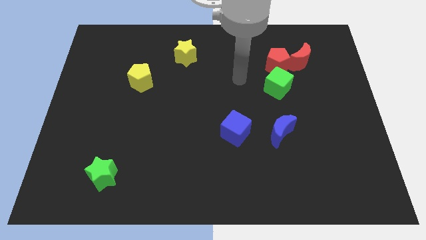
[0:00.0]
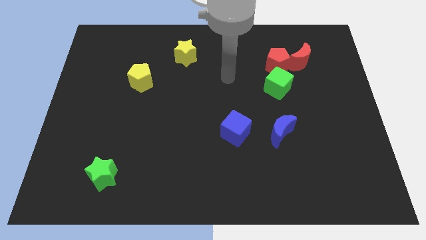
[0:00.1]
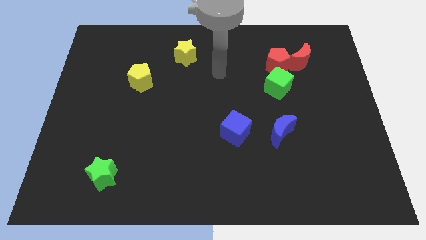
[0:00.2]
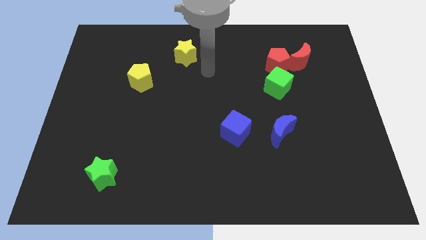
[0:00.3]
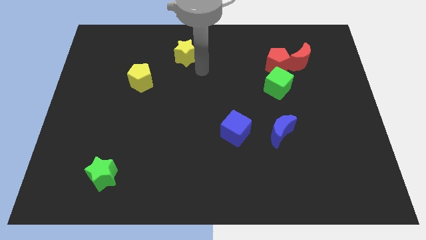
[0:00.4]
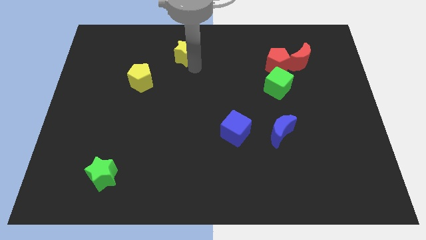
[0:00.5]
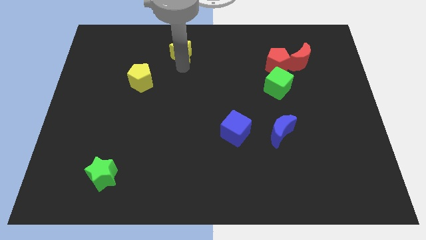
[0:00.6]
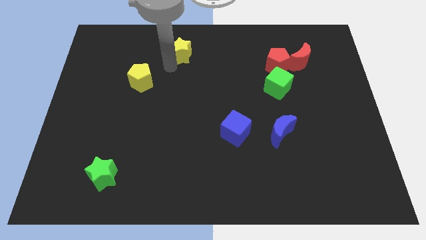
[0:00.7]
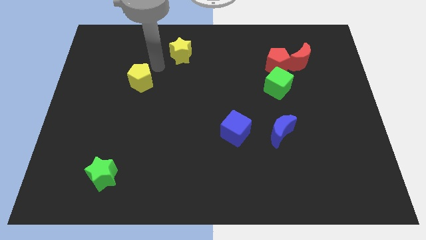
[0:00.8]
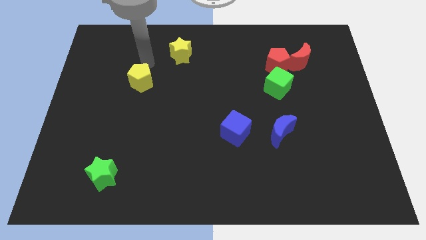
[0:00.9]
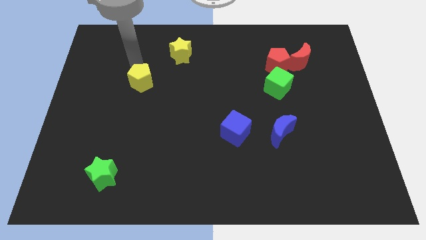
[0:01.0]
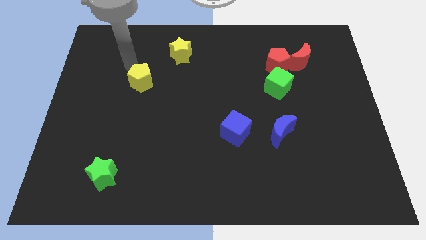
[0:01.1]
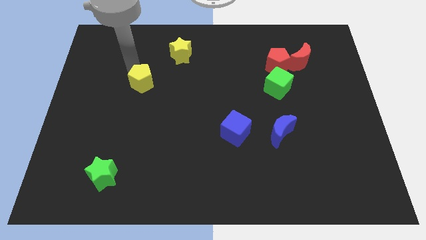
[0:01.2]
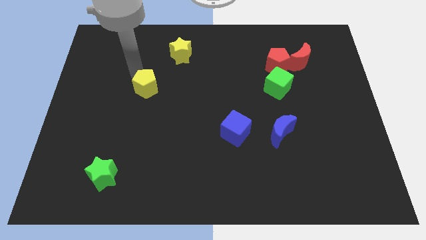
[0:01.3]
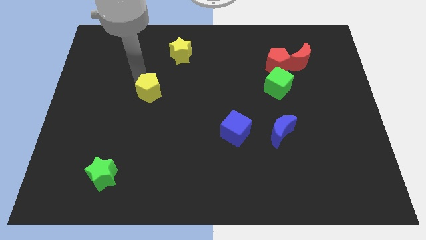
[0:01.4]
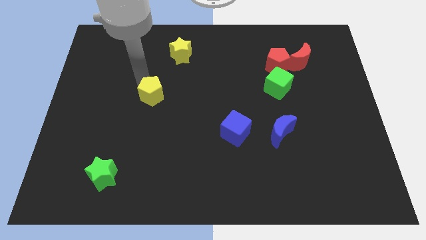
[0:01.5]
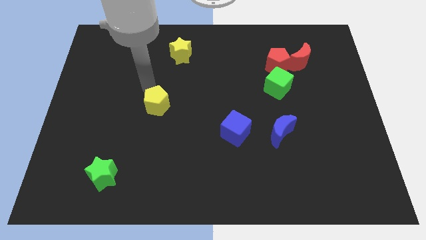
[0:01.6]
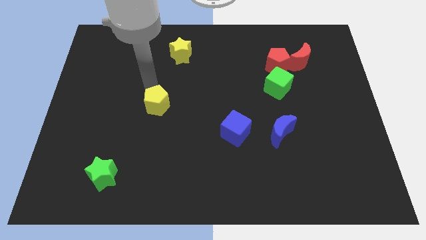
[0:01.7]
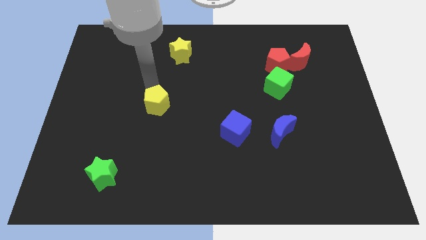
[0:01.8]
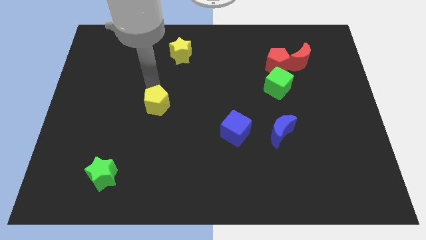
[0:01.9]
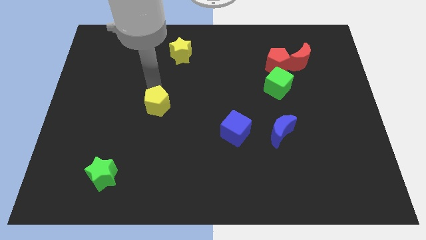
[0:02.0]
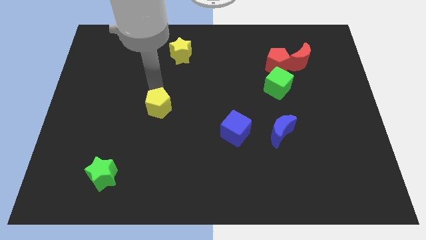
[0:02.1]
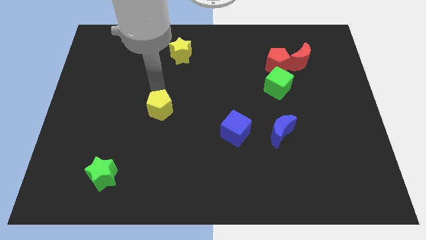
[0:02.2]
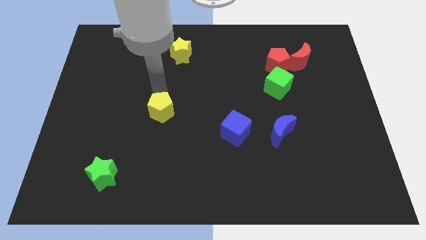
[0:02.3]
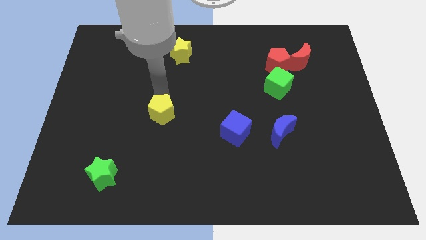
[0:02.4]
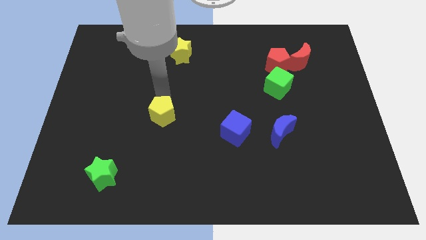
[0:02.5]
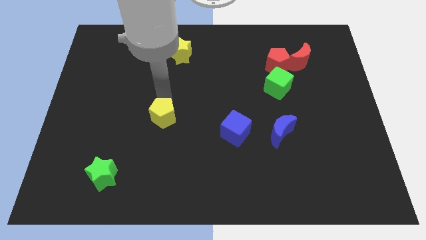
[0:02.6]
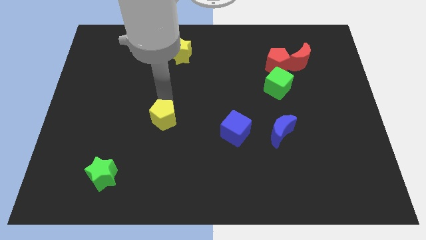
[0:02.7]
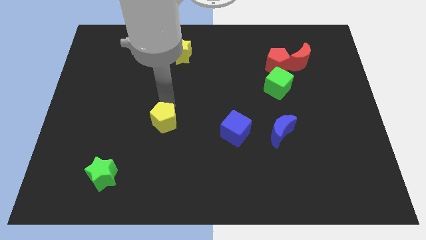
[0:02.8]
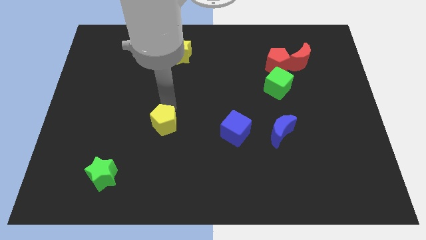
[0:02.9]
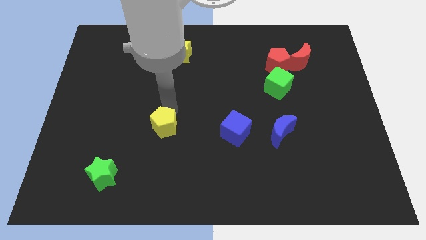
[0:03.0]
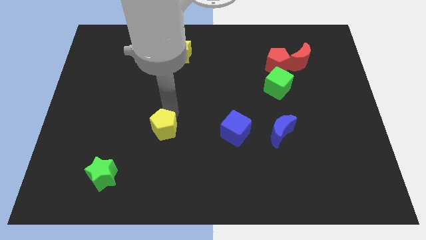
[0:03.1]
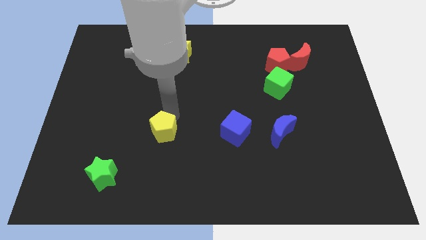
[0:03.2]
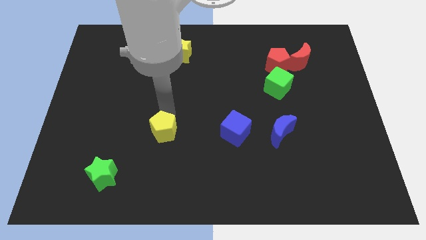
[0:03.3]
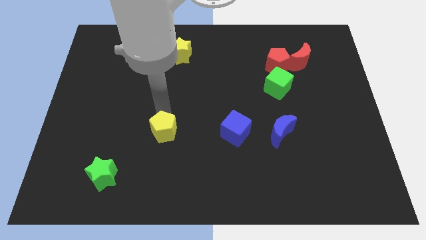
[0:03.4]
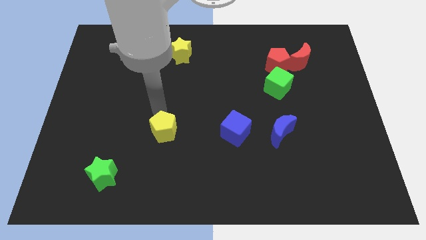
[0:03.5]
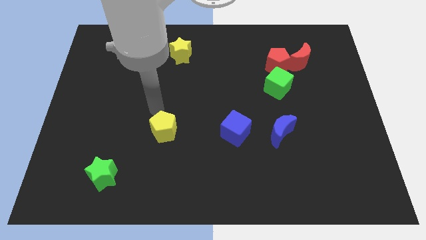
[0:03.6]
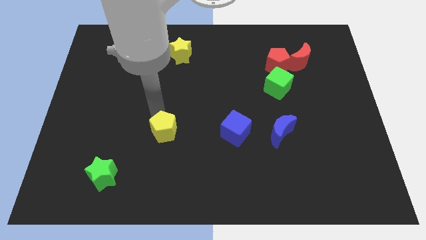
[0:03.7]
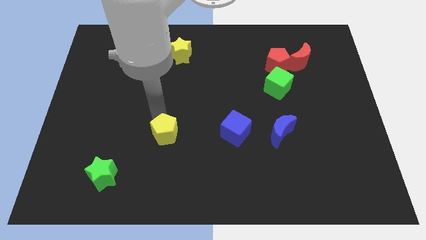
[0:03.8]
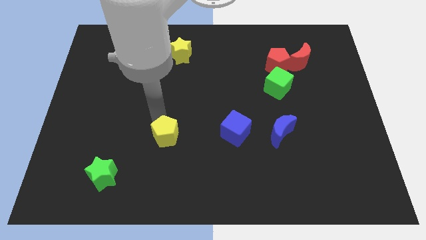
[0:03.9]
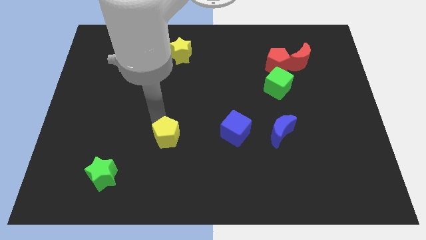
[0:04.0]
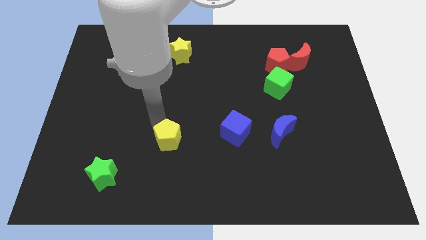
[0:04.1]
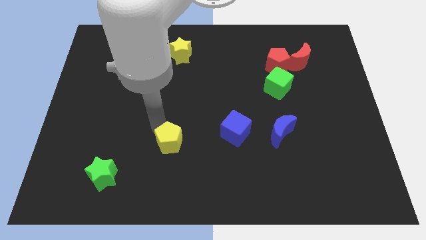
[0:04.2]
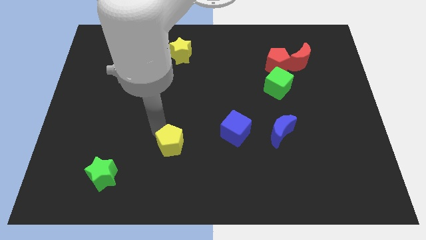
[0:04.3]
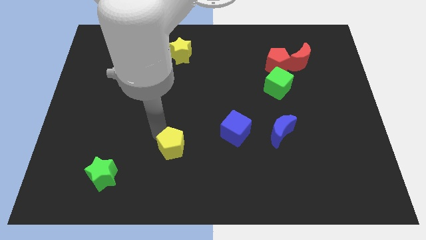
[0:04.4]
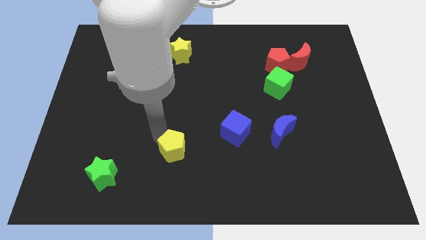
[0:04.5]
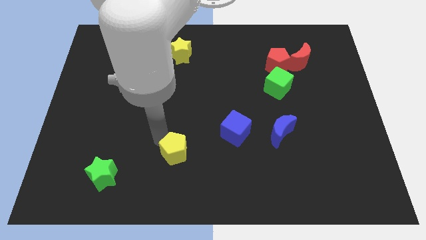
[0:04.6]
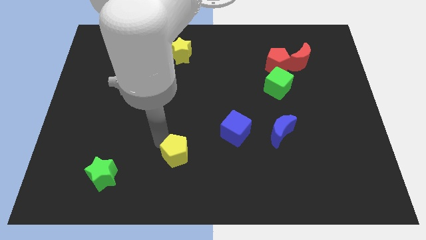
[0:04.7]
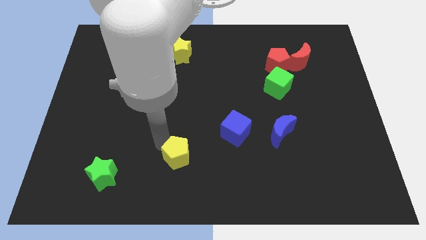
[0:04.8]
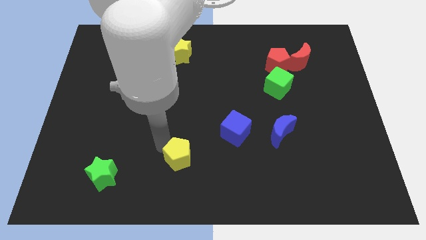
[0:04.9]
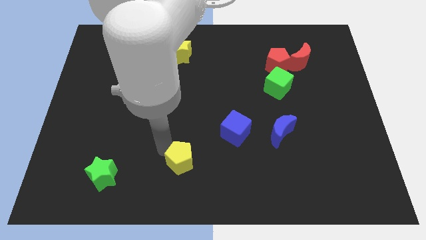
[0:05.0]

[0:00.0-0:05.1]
push the yellow pentagon to the bottom side

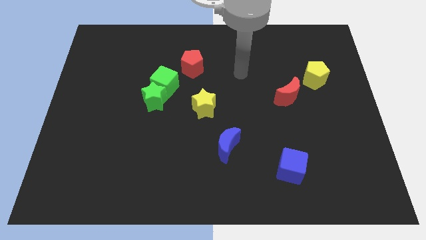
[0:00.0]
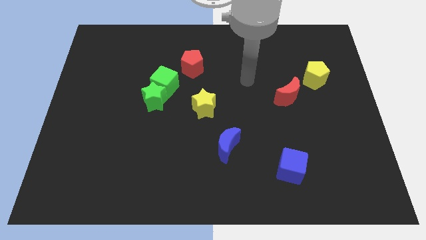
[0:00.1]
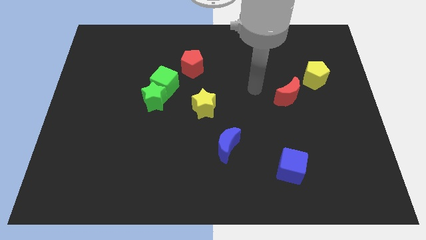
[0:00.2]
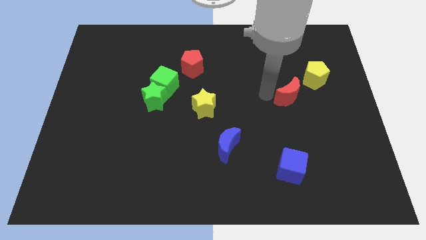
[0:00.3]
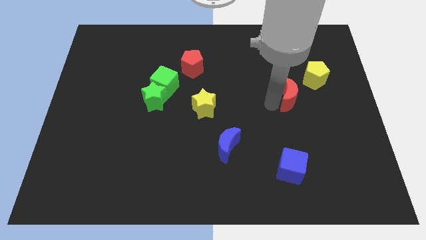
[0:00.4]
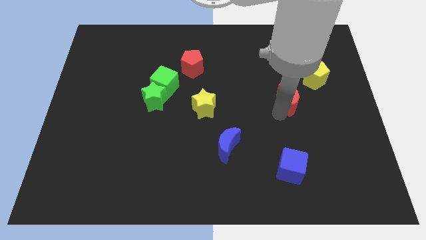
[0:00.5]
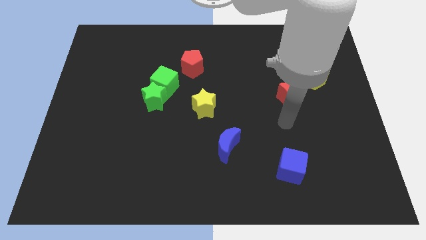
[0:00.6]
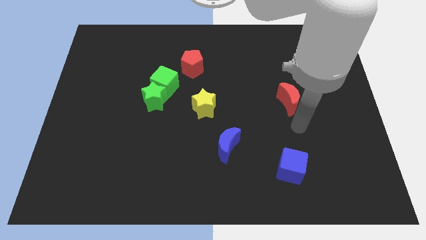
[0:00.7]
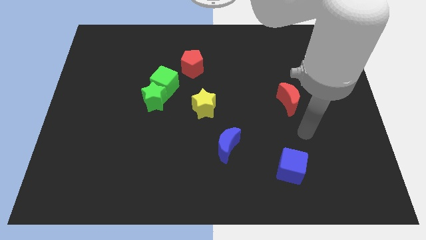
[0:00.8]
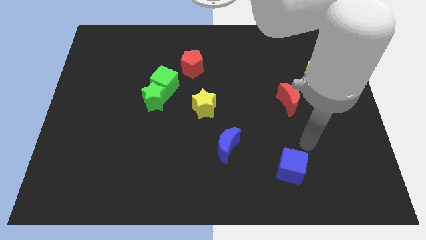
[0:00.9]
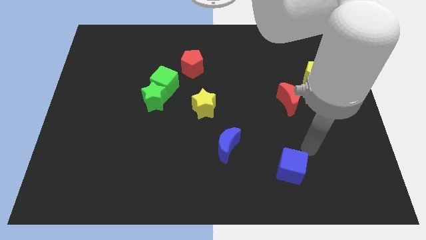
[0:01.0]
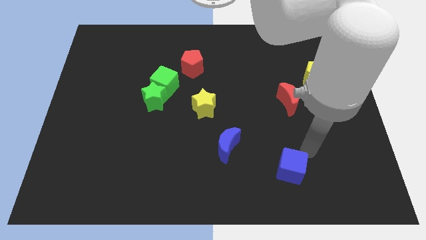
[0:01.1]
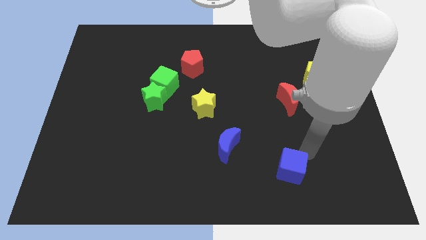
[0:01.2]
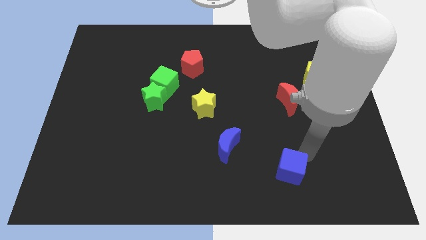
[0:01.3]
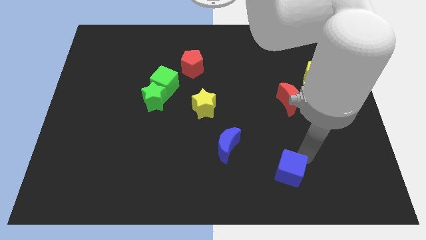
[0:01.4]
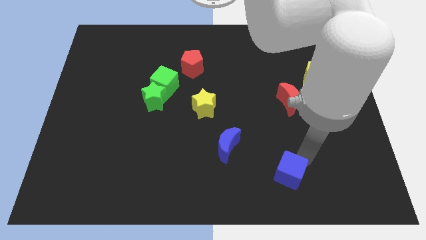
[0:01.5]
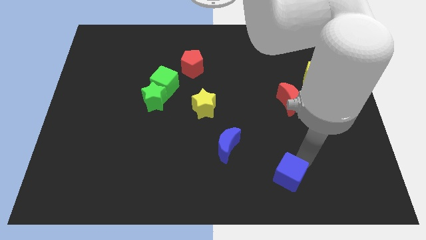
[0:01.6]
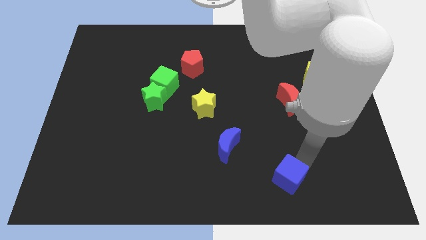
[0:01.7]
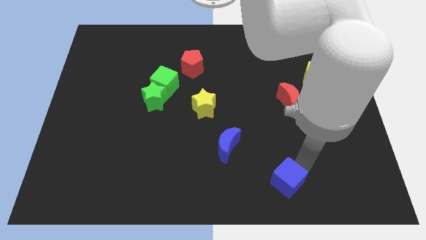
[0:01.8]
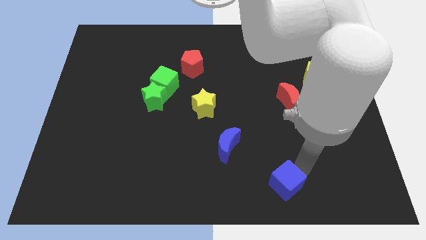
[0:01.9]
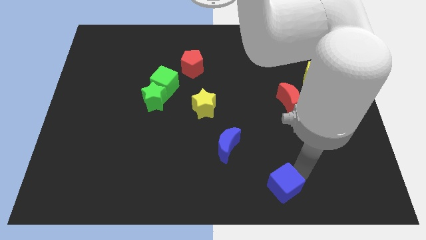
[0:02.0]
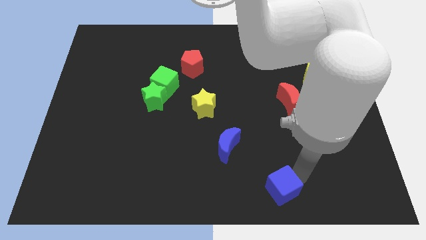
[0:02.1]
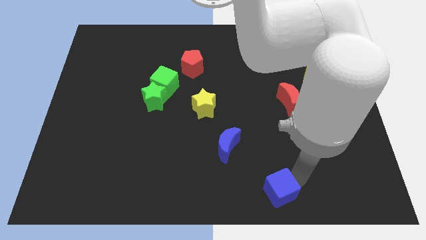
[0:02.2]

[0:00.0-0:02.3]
move the blue cube to the bottom
